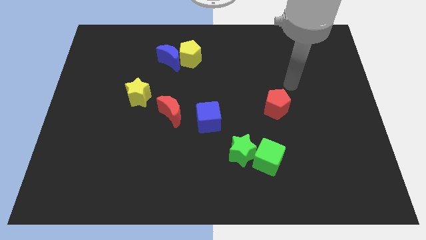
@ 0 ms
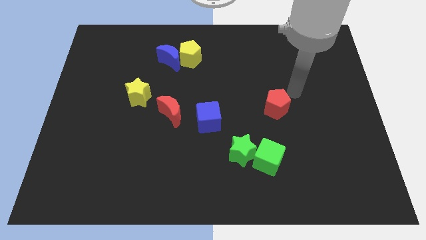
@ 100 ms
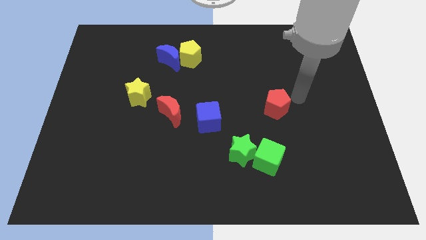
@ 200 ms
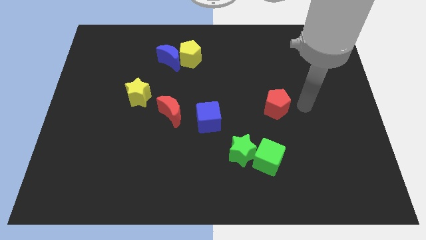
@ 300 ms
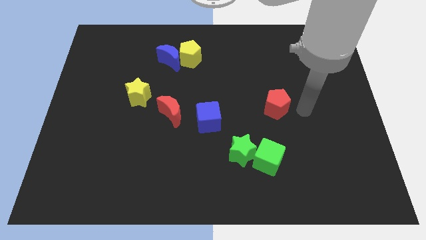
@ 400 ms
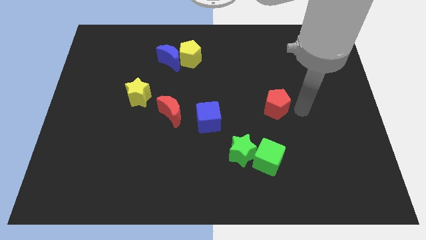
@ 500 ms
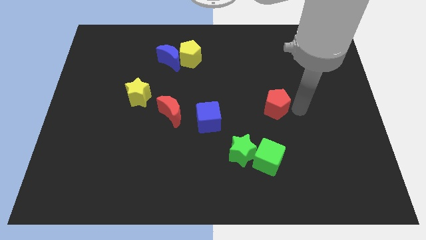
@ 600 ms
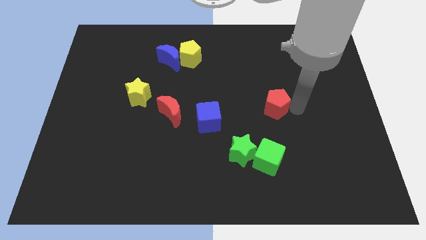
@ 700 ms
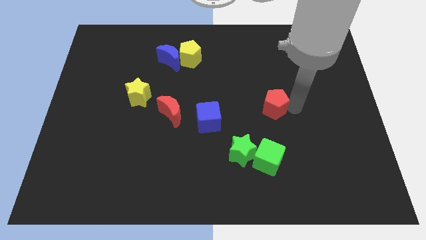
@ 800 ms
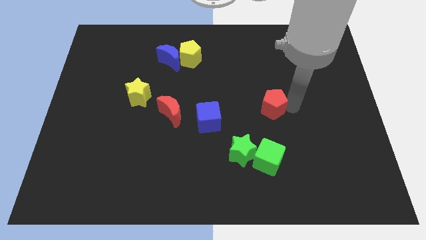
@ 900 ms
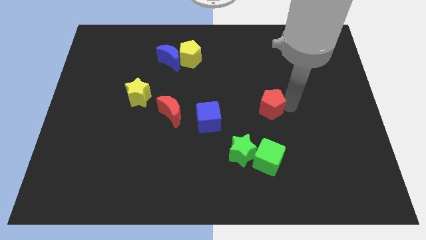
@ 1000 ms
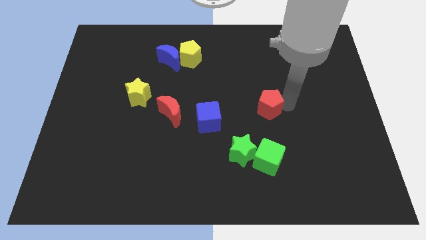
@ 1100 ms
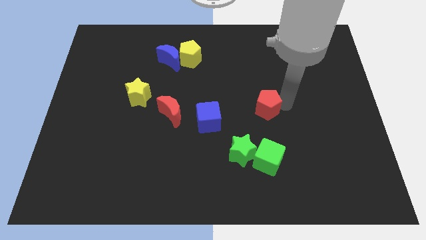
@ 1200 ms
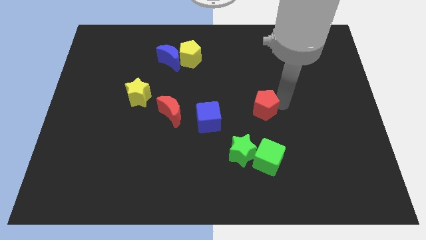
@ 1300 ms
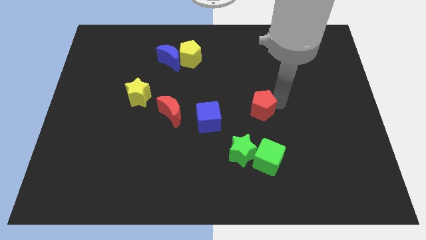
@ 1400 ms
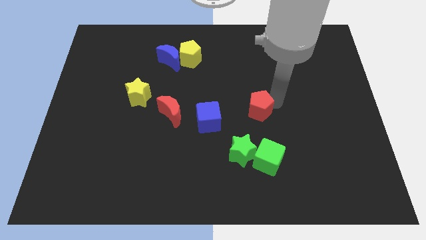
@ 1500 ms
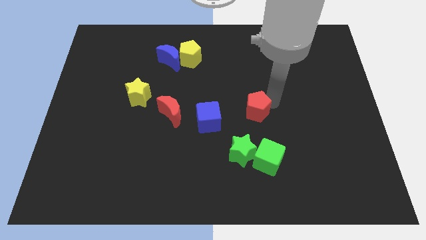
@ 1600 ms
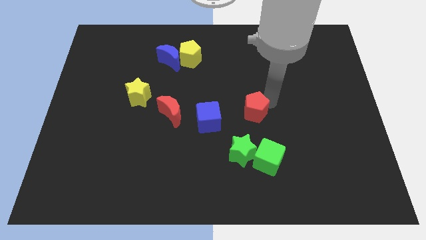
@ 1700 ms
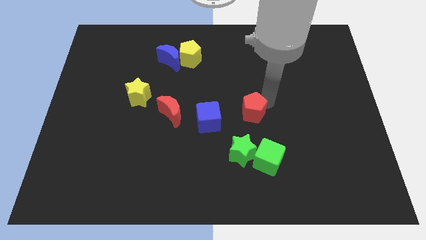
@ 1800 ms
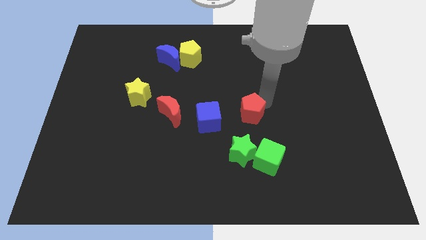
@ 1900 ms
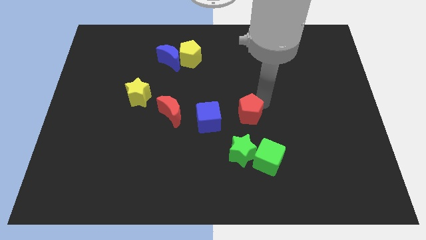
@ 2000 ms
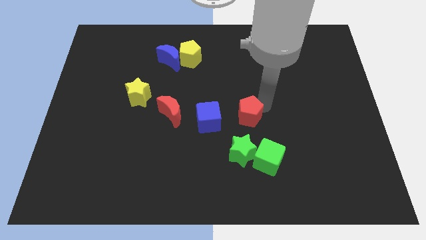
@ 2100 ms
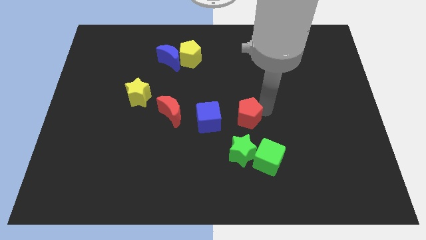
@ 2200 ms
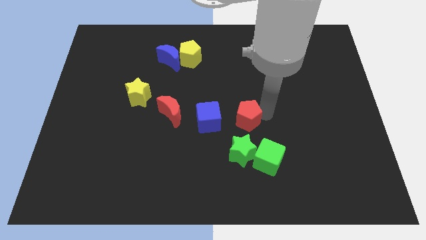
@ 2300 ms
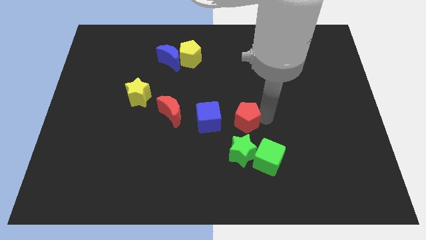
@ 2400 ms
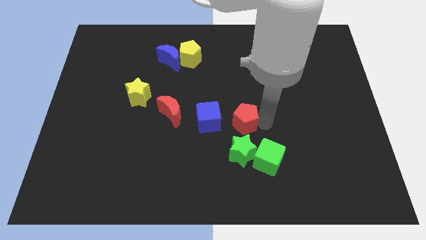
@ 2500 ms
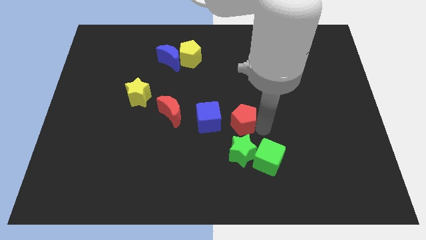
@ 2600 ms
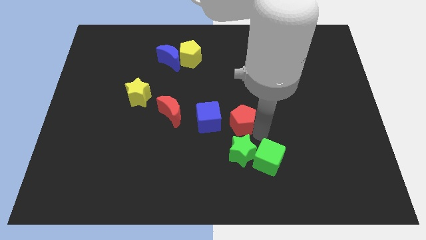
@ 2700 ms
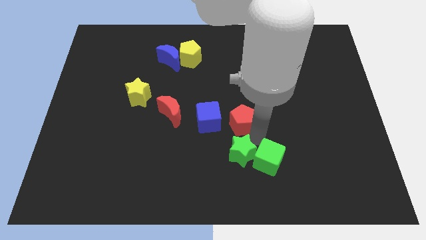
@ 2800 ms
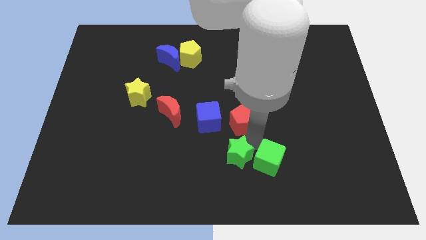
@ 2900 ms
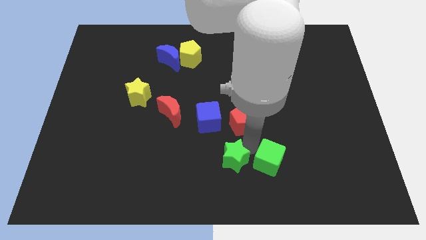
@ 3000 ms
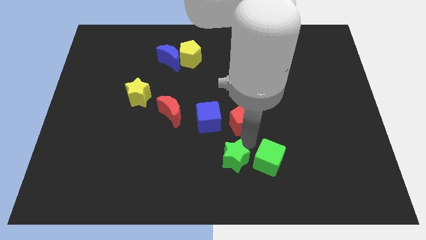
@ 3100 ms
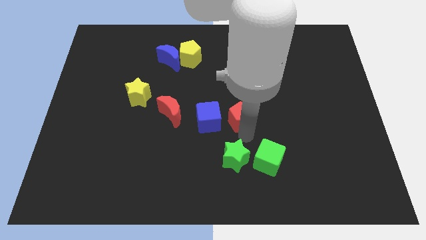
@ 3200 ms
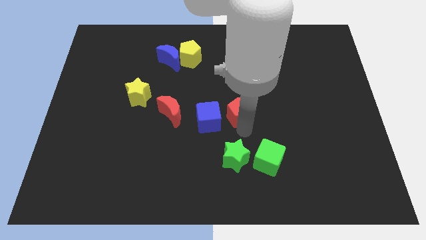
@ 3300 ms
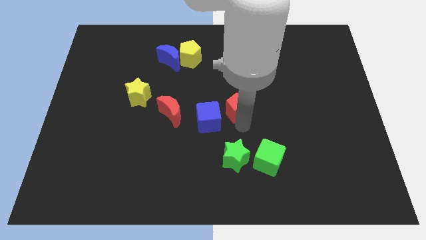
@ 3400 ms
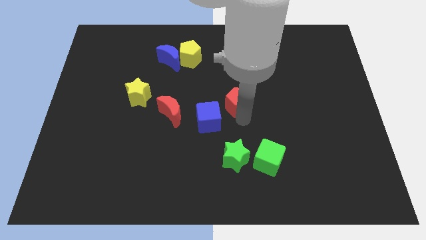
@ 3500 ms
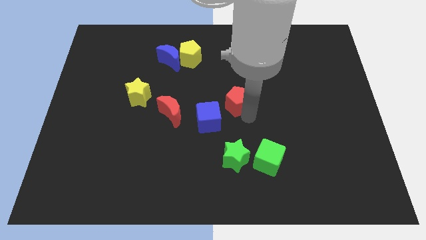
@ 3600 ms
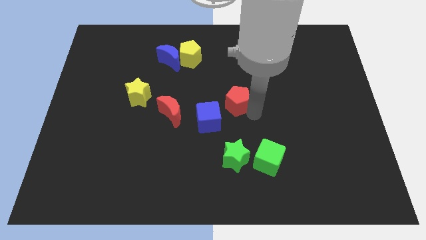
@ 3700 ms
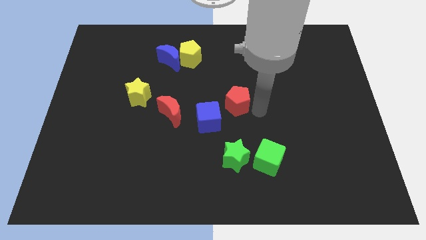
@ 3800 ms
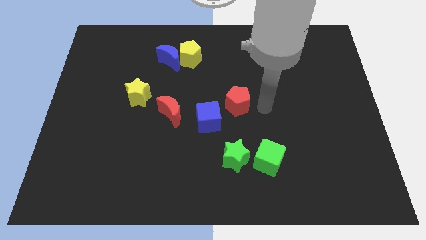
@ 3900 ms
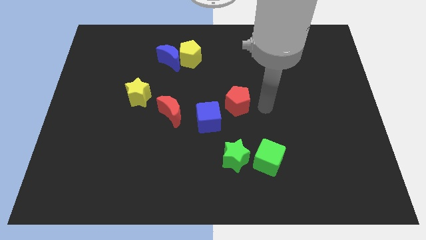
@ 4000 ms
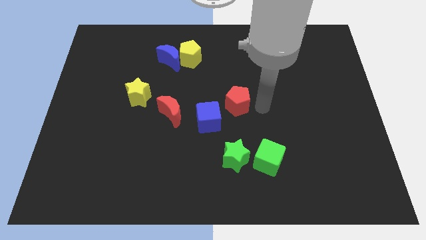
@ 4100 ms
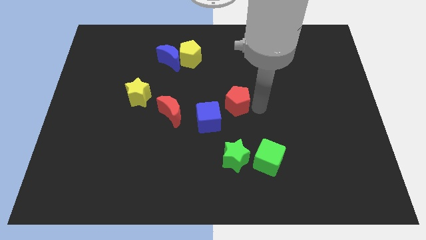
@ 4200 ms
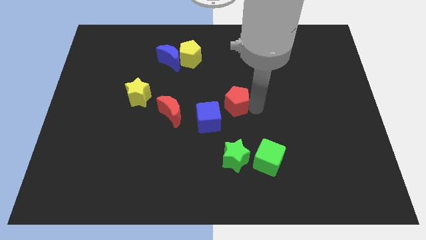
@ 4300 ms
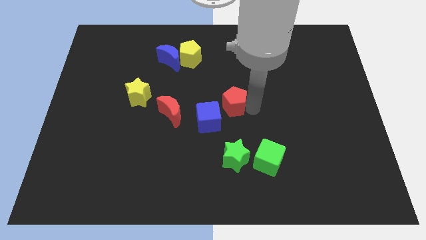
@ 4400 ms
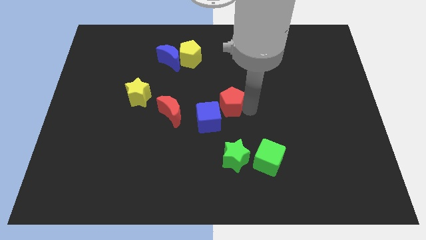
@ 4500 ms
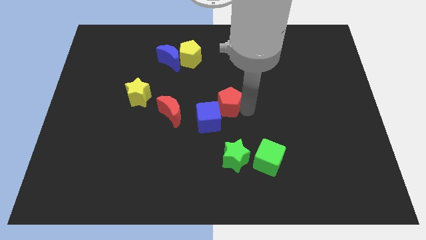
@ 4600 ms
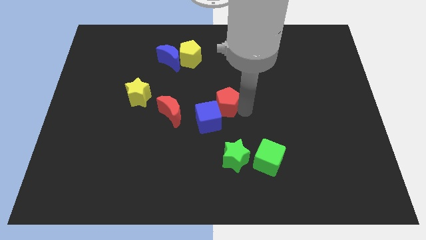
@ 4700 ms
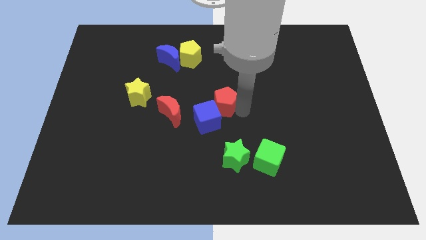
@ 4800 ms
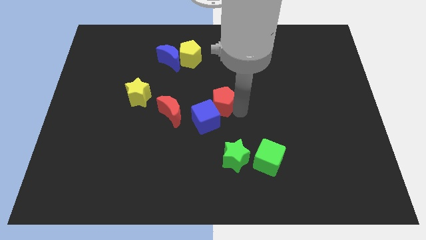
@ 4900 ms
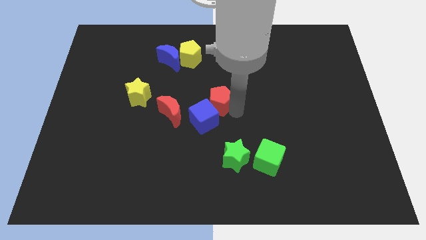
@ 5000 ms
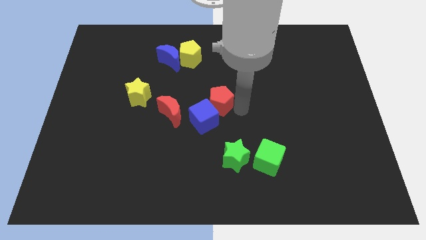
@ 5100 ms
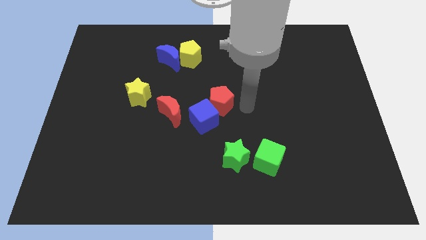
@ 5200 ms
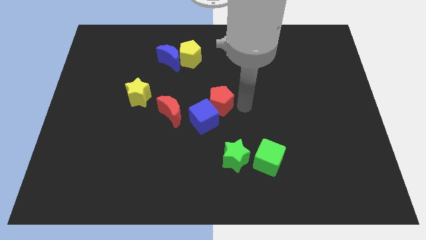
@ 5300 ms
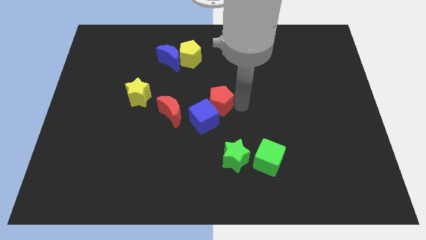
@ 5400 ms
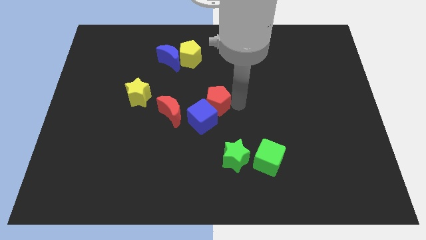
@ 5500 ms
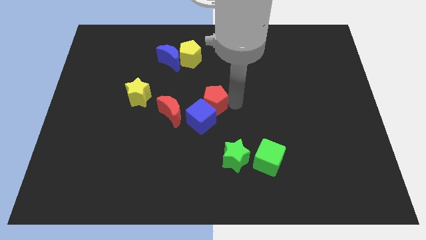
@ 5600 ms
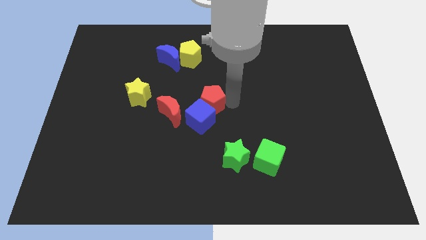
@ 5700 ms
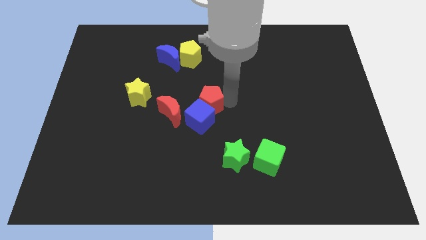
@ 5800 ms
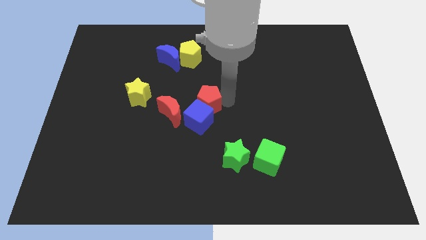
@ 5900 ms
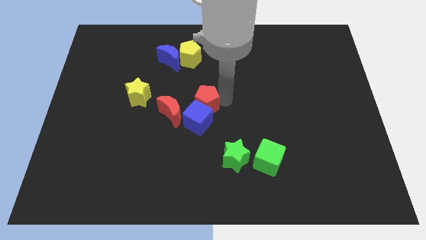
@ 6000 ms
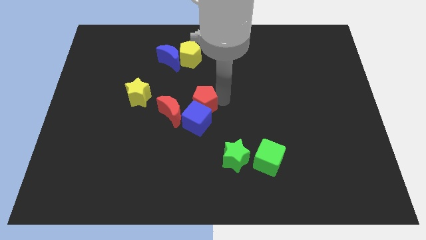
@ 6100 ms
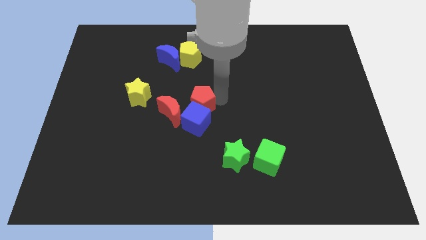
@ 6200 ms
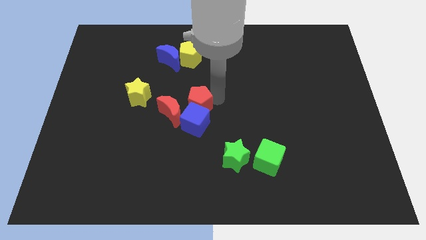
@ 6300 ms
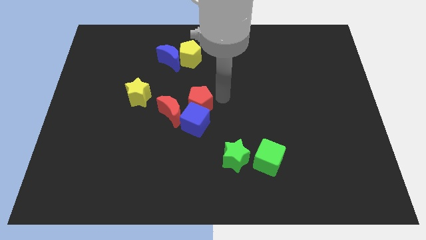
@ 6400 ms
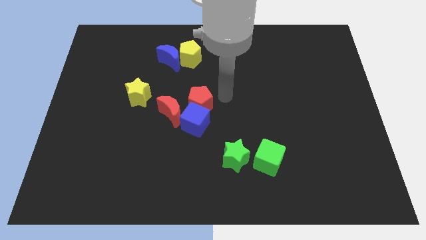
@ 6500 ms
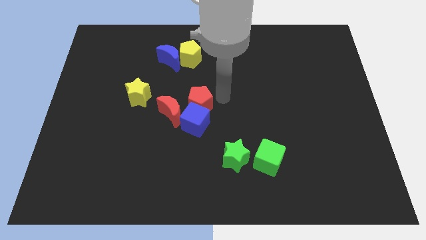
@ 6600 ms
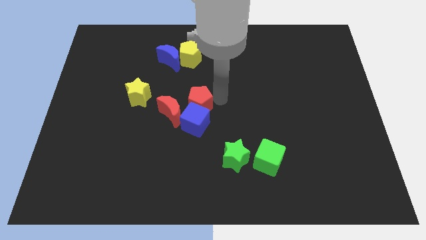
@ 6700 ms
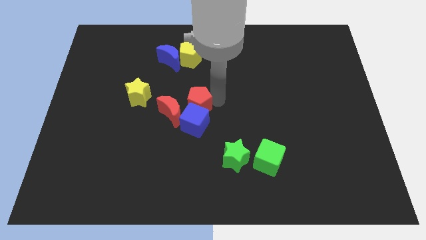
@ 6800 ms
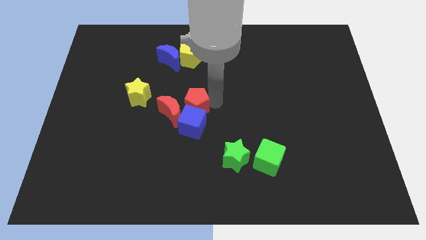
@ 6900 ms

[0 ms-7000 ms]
put the red pentagon next to the red moon

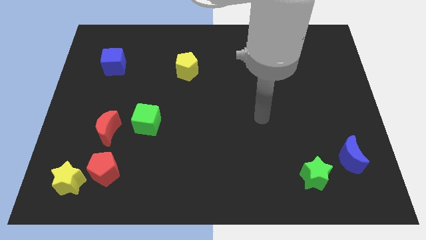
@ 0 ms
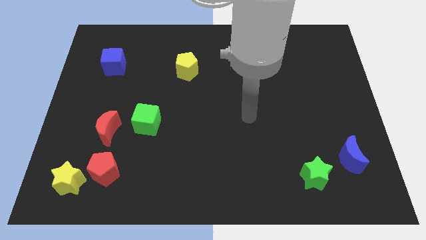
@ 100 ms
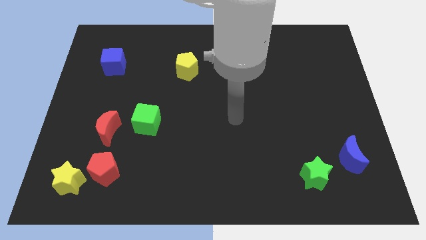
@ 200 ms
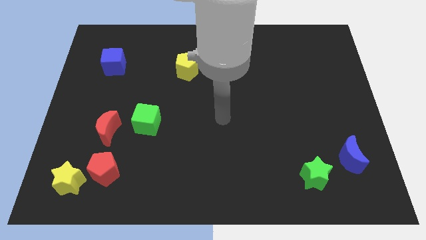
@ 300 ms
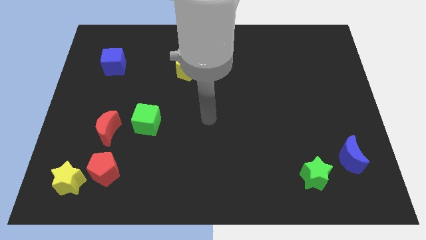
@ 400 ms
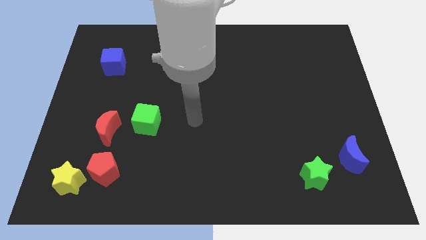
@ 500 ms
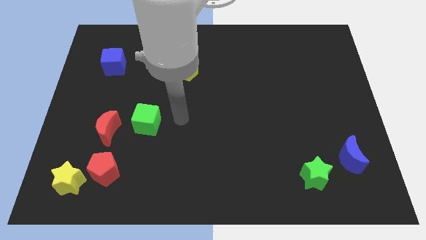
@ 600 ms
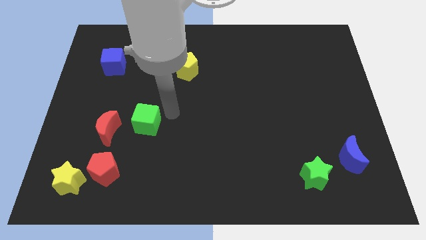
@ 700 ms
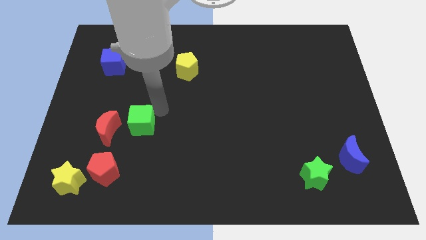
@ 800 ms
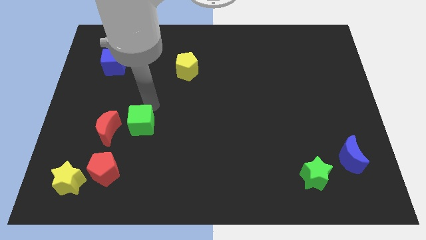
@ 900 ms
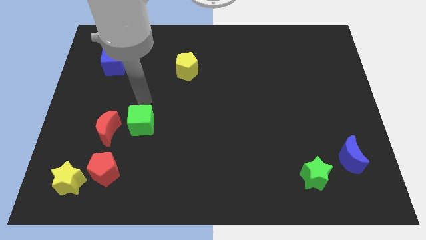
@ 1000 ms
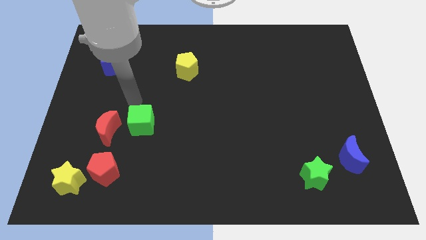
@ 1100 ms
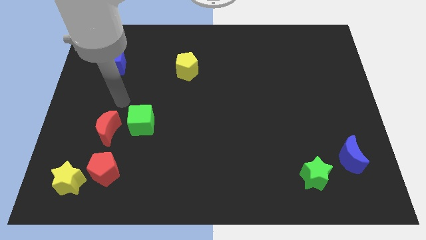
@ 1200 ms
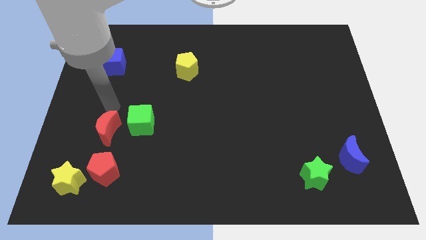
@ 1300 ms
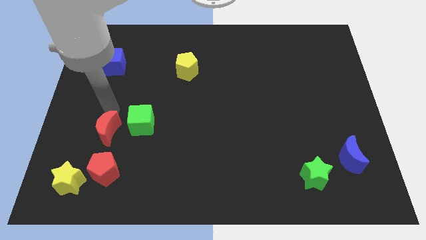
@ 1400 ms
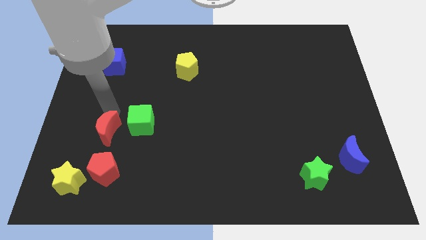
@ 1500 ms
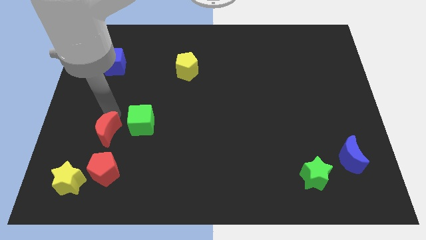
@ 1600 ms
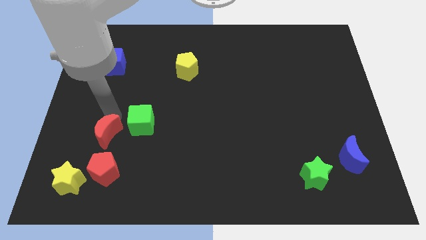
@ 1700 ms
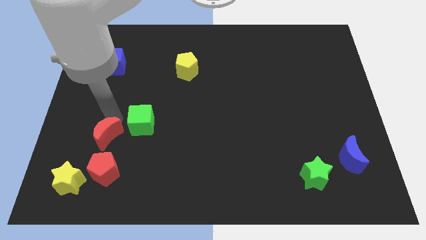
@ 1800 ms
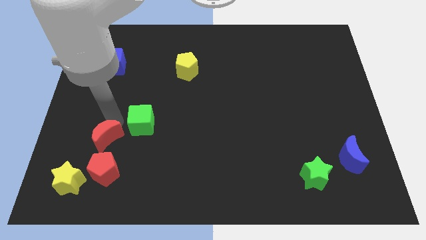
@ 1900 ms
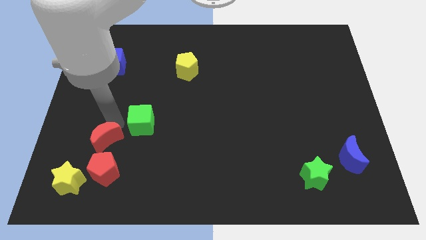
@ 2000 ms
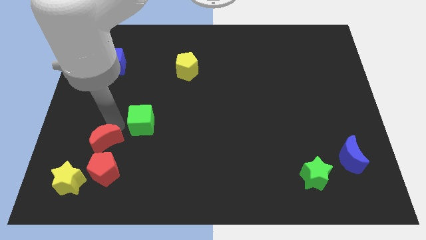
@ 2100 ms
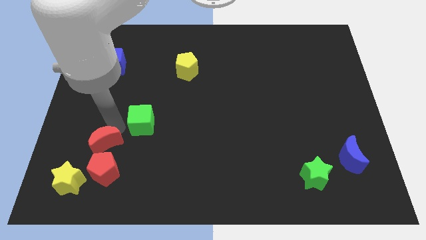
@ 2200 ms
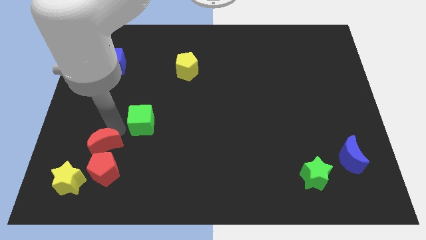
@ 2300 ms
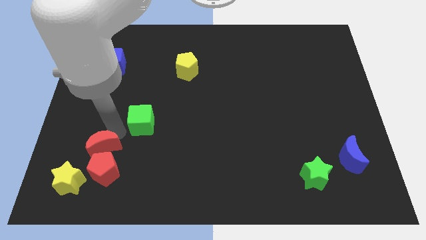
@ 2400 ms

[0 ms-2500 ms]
push the red moon next to the red pentagon
